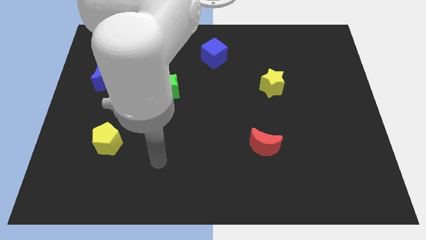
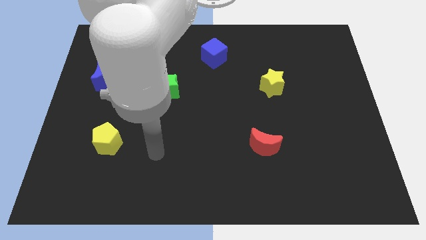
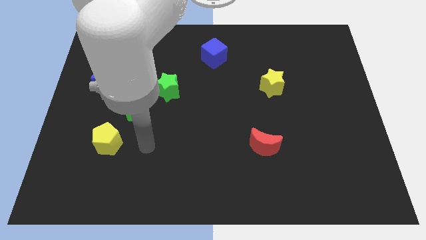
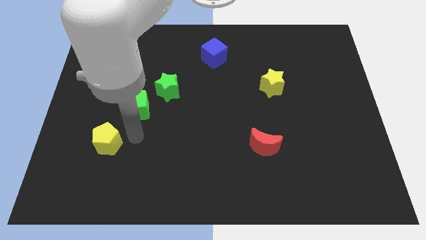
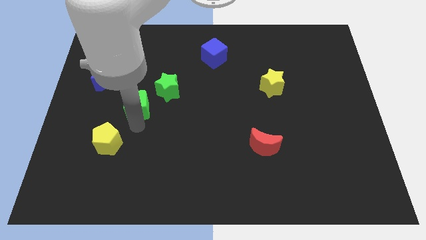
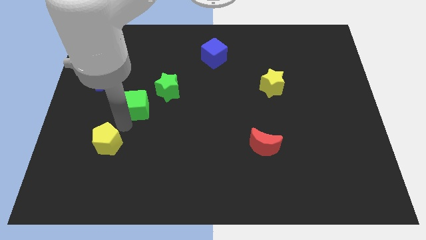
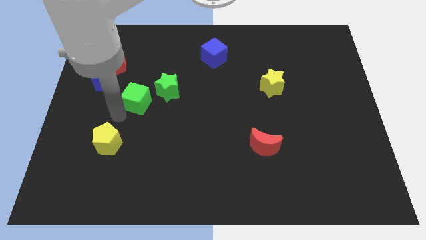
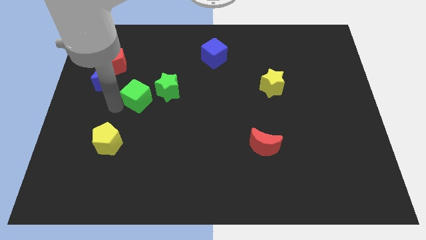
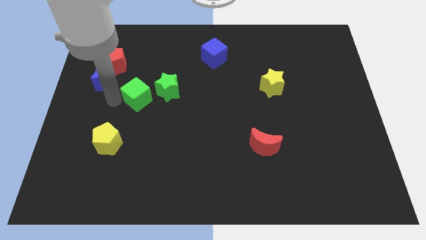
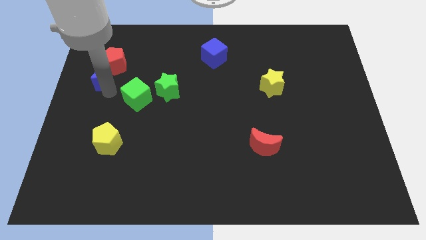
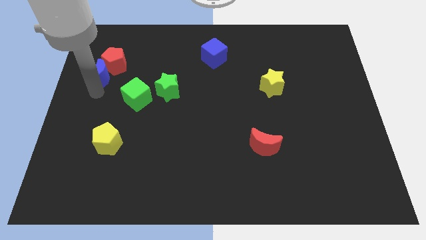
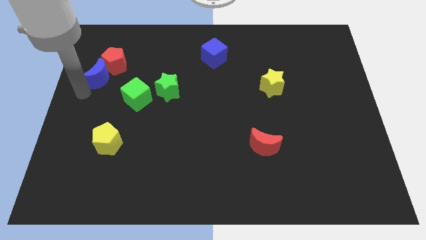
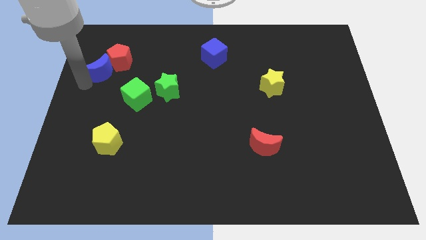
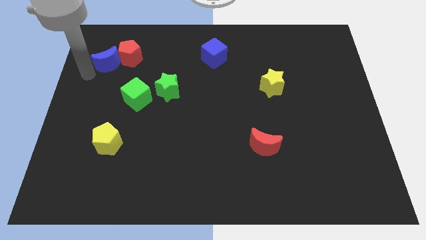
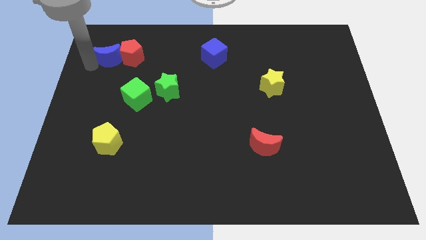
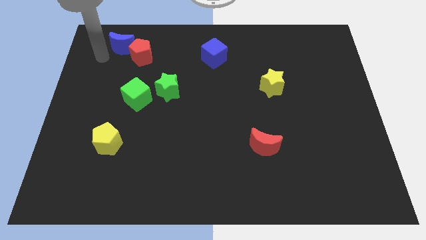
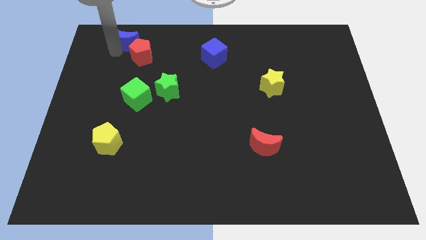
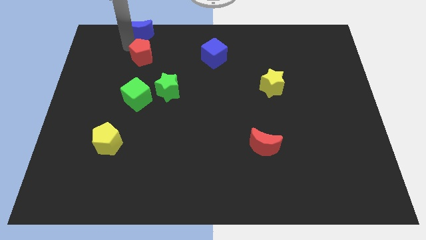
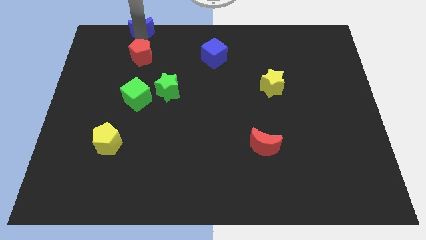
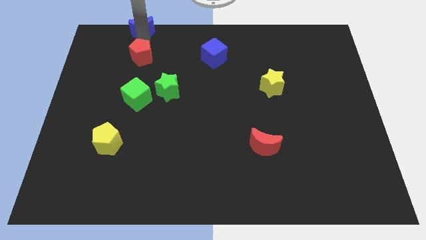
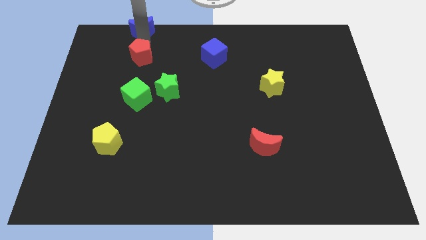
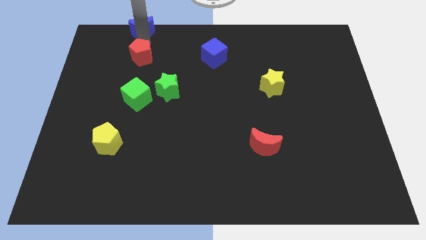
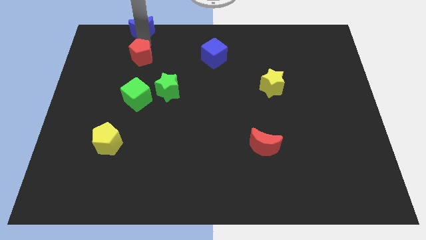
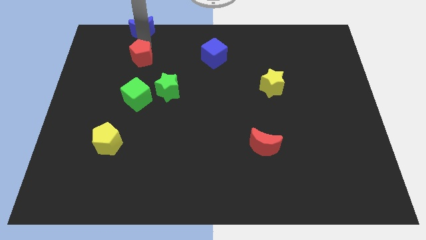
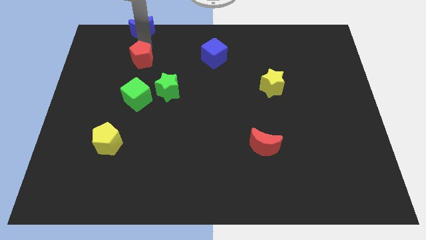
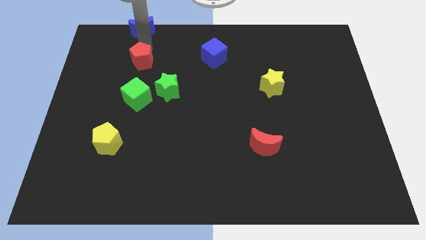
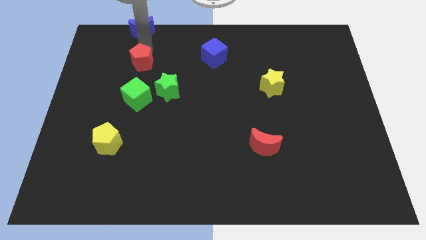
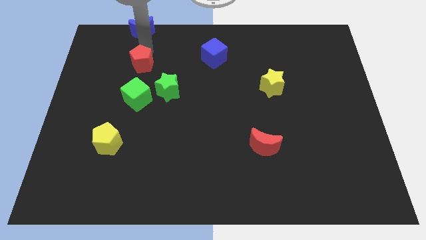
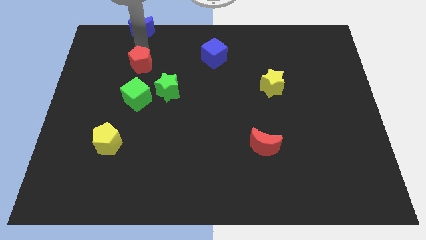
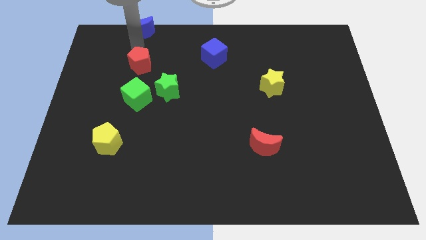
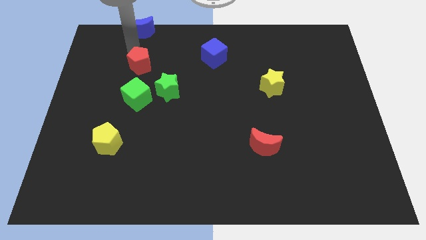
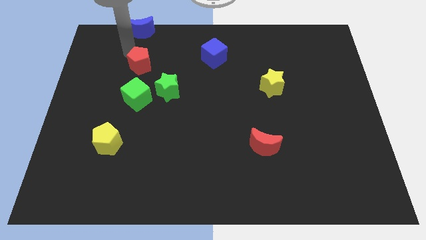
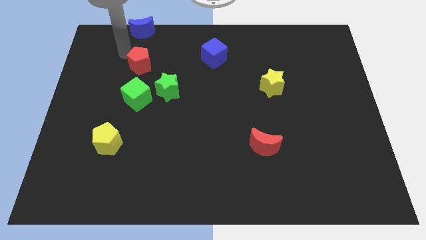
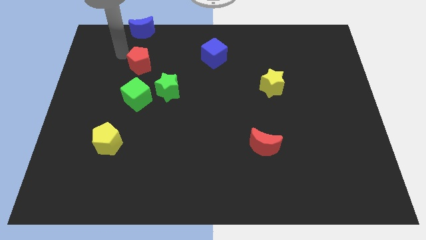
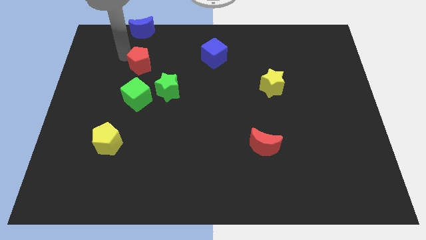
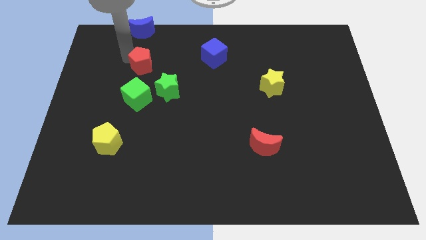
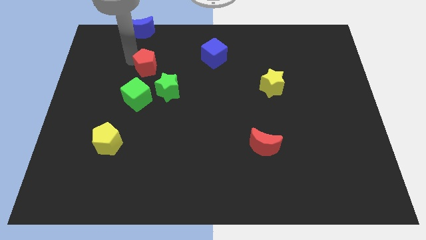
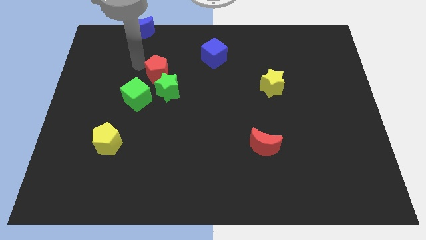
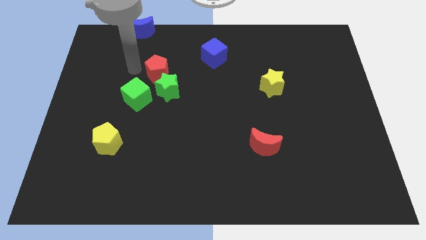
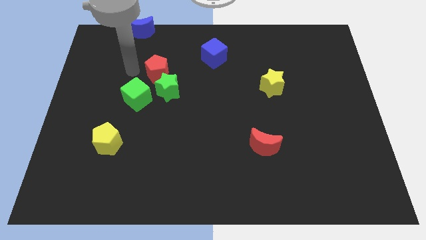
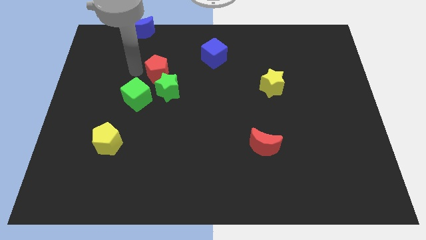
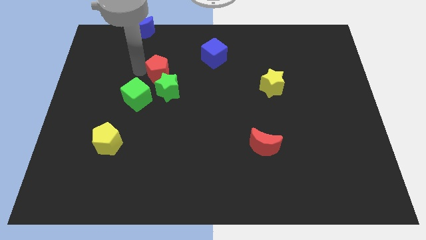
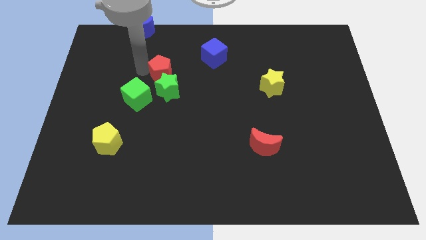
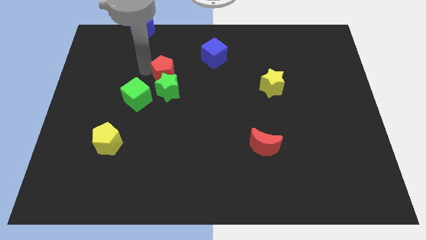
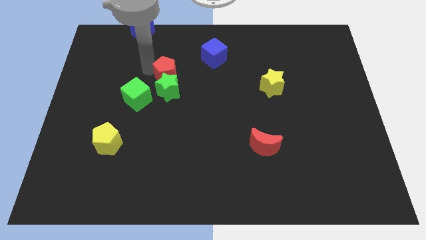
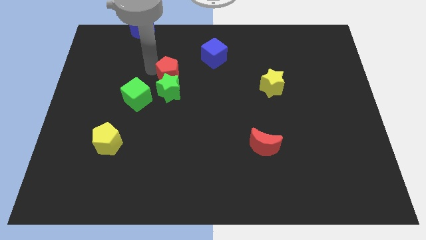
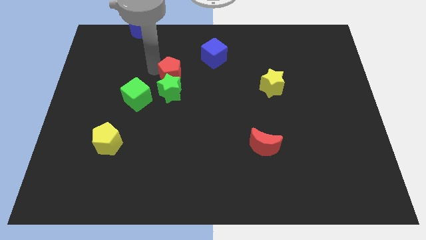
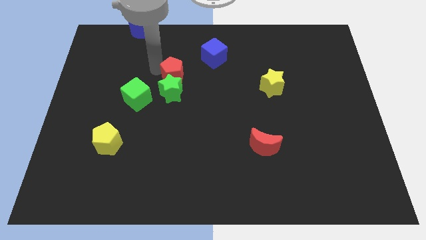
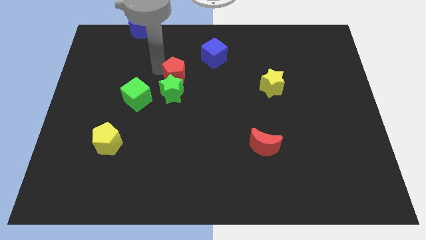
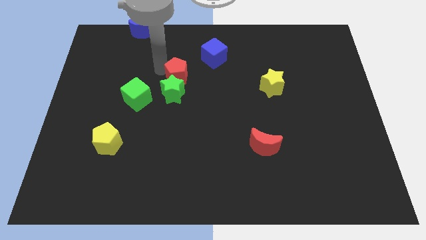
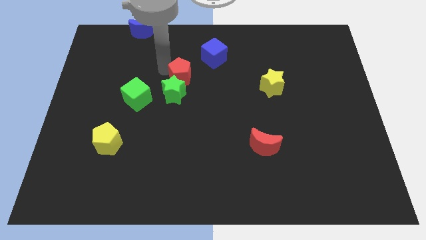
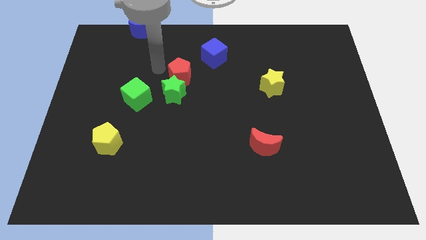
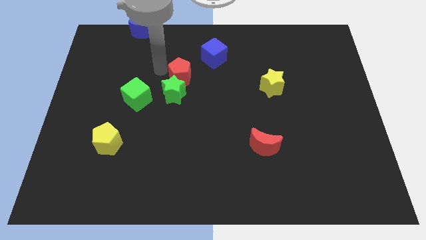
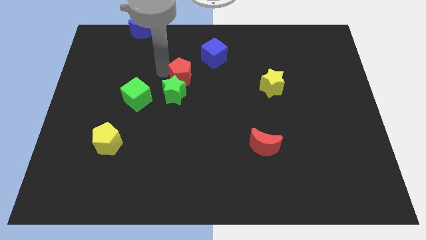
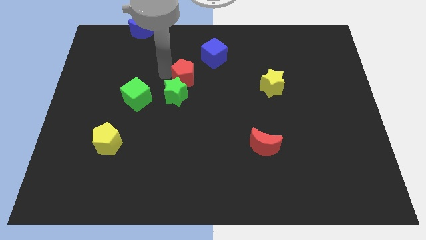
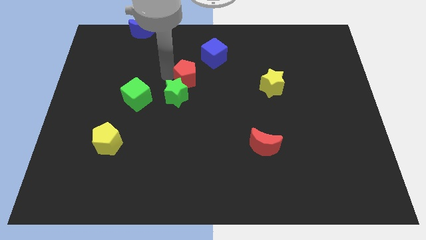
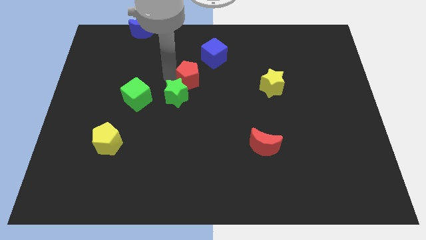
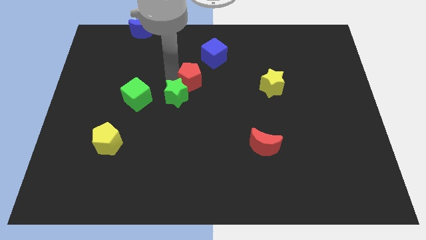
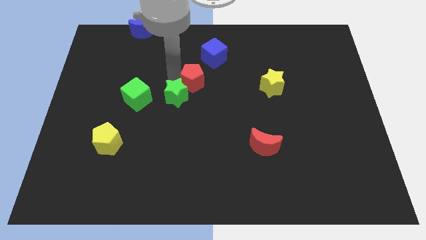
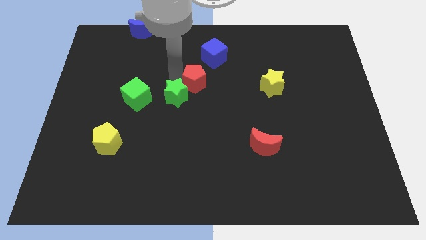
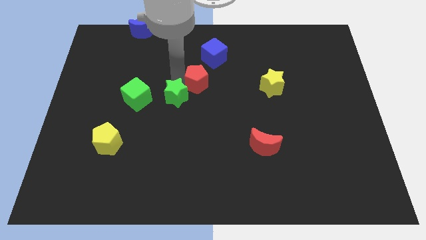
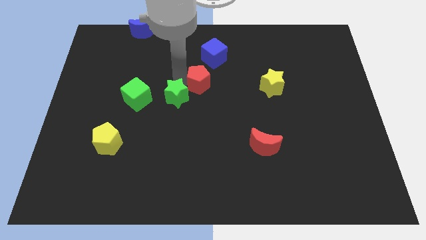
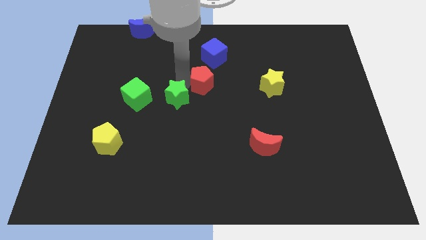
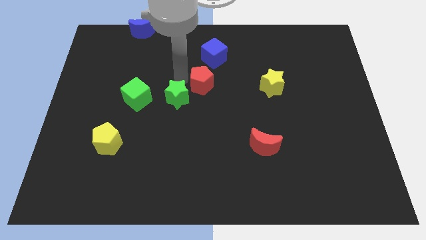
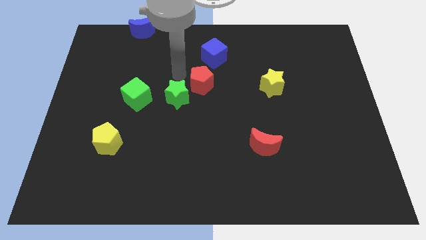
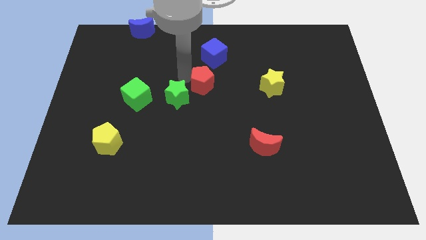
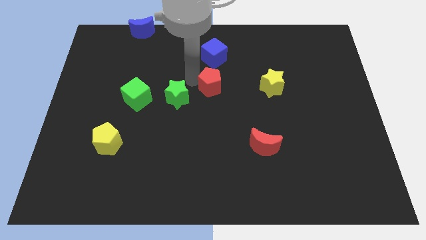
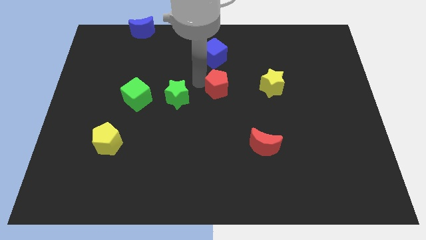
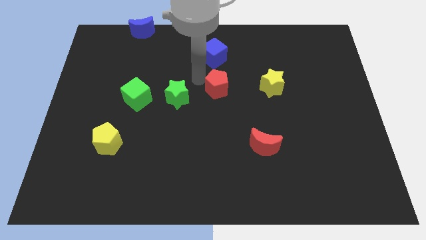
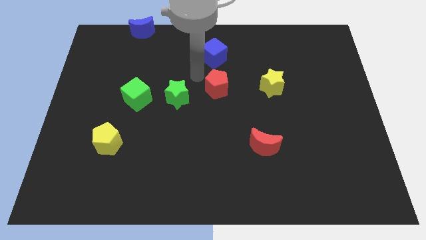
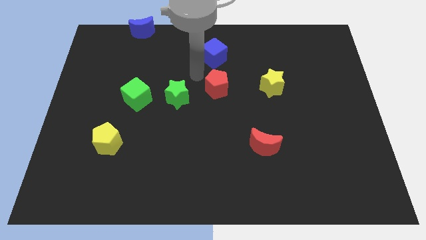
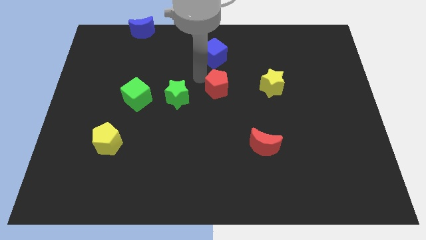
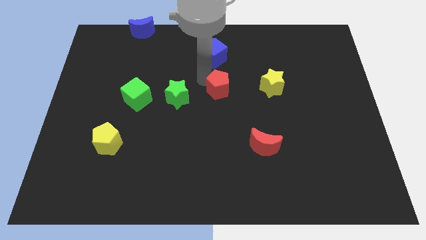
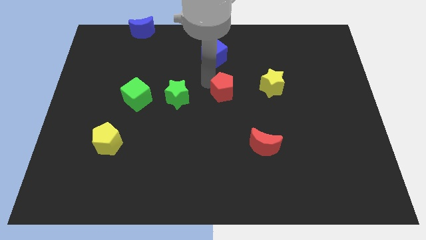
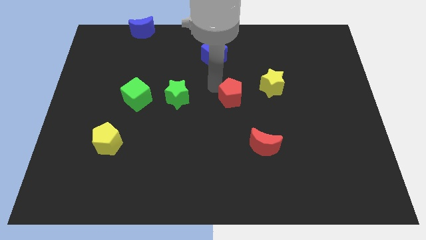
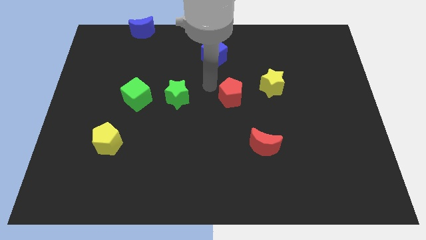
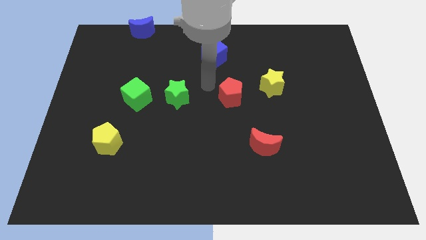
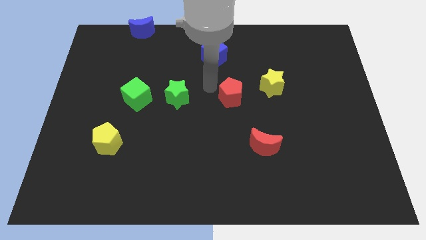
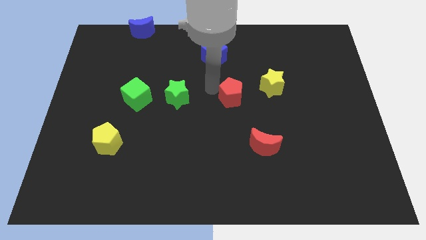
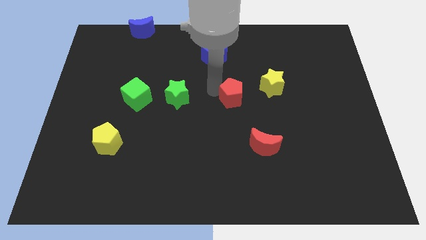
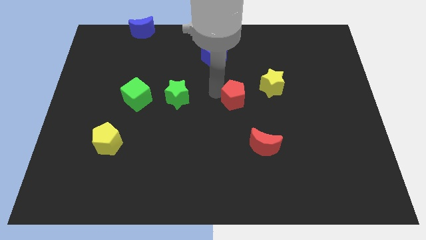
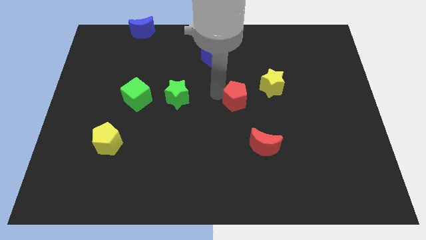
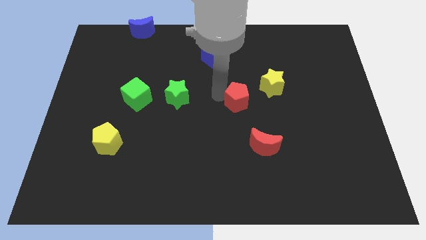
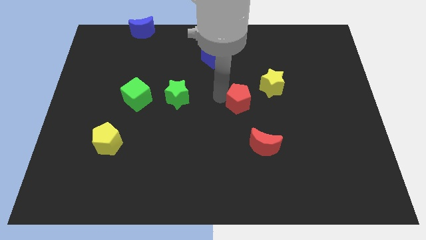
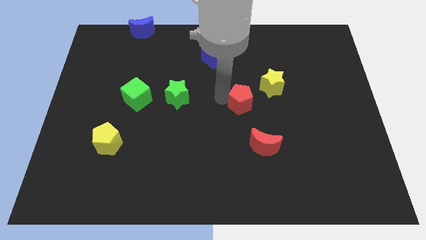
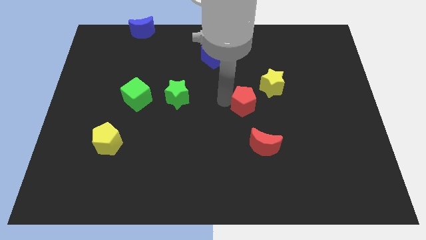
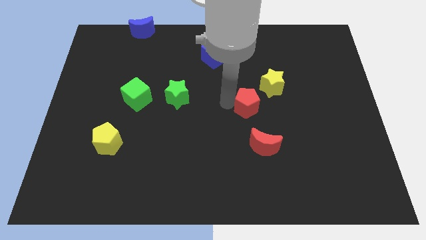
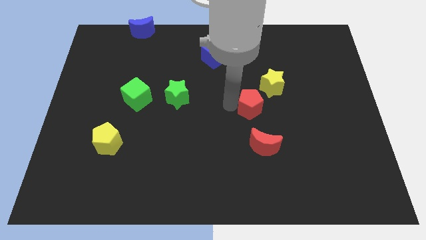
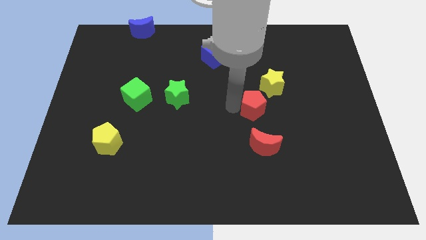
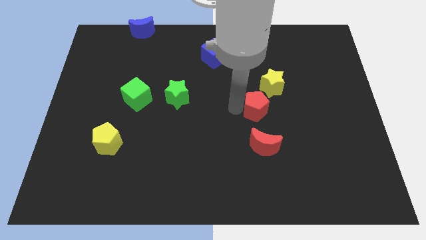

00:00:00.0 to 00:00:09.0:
slide the red pentagon below the yellow star
